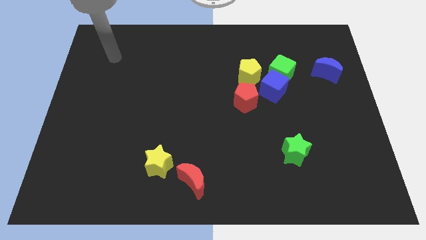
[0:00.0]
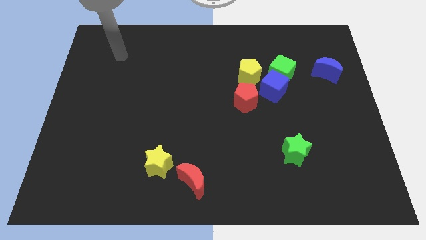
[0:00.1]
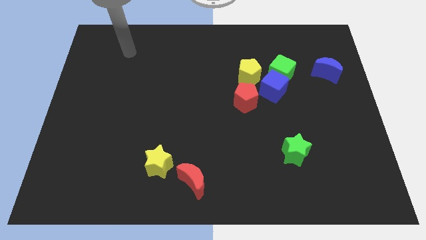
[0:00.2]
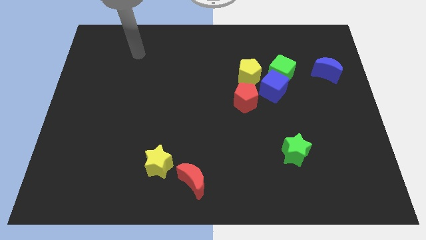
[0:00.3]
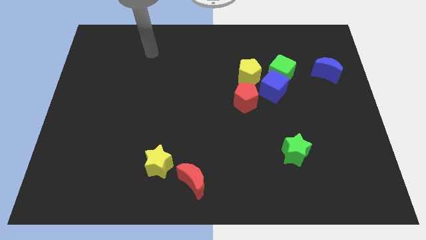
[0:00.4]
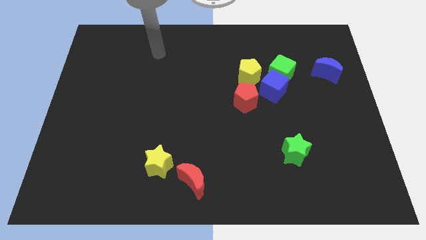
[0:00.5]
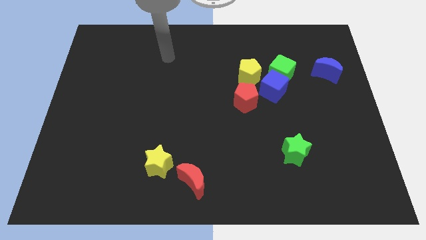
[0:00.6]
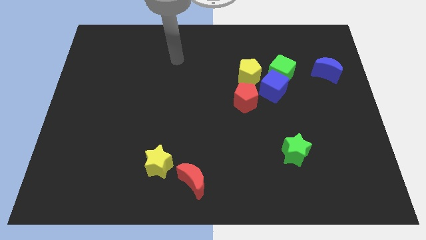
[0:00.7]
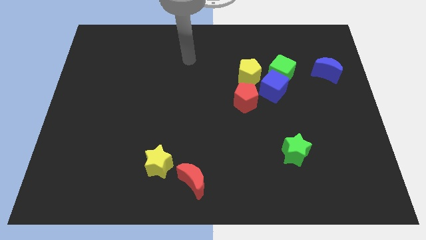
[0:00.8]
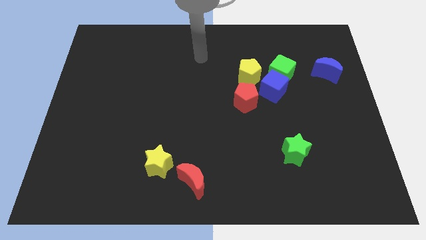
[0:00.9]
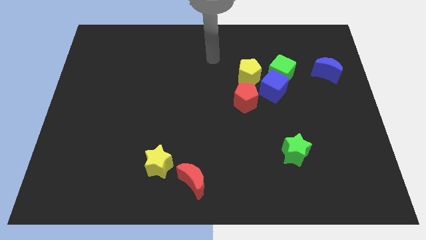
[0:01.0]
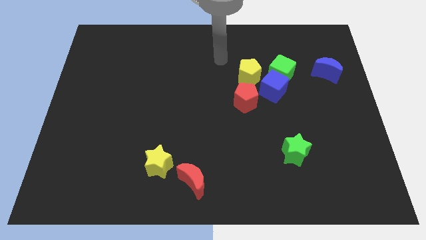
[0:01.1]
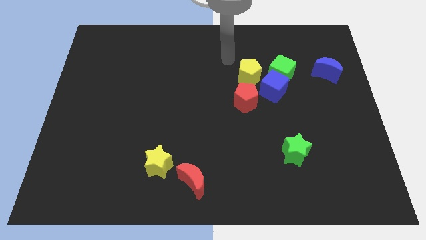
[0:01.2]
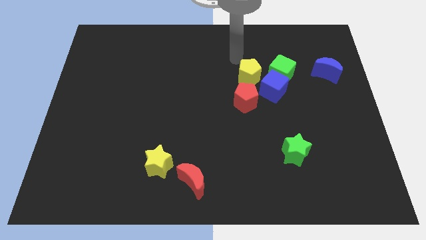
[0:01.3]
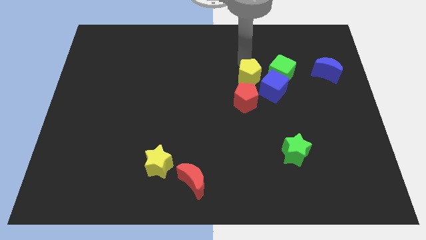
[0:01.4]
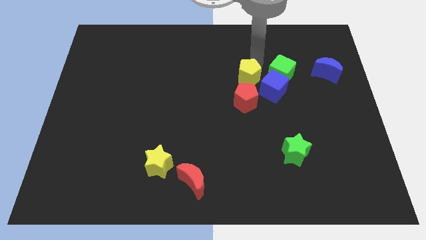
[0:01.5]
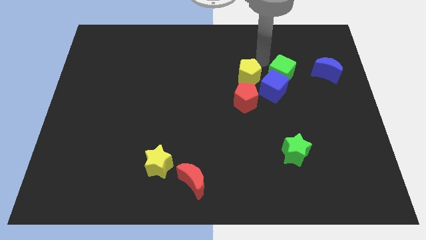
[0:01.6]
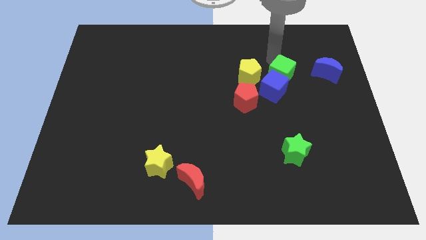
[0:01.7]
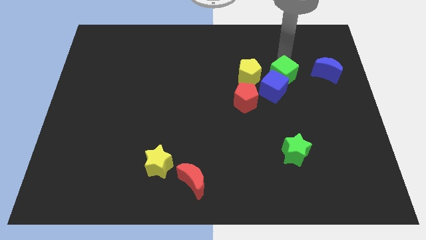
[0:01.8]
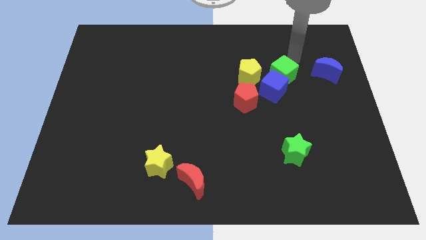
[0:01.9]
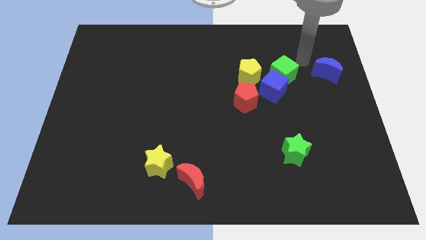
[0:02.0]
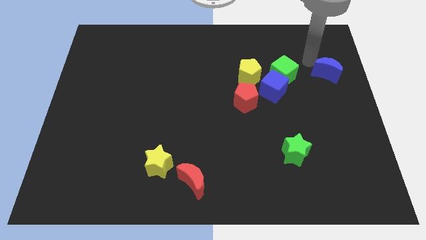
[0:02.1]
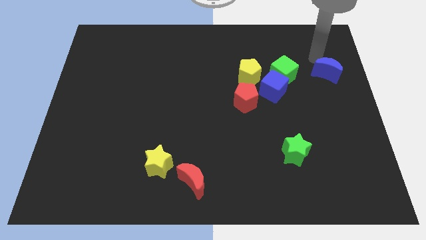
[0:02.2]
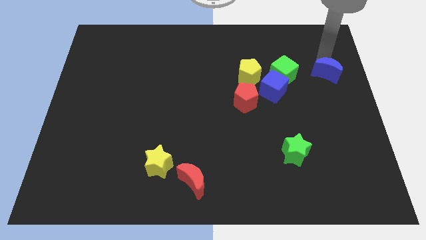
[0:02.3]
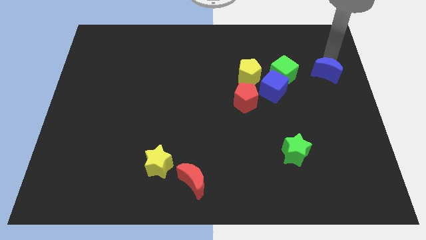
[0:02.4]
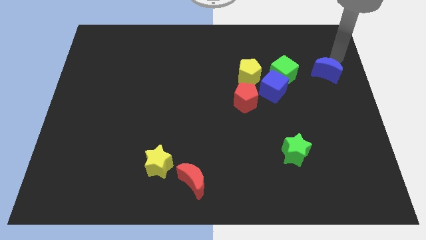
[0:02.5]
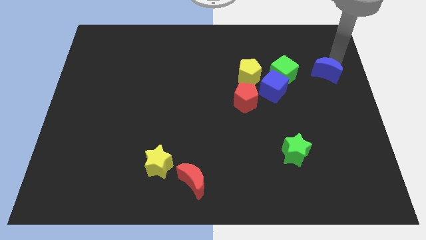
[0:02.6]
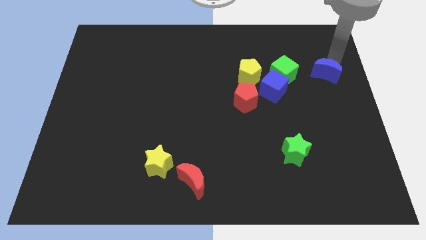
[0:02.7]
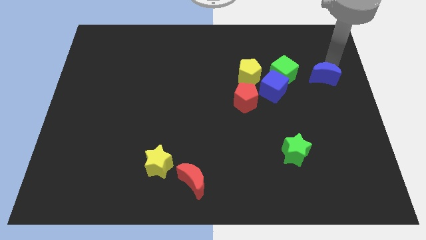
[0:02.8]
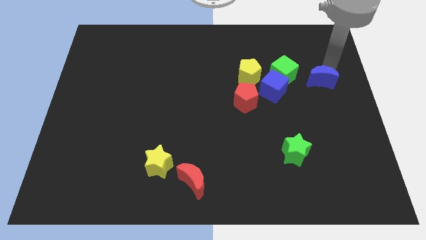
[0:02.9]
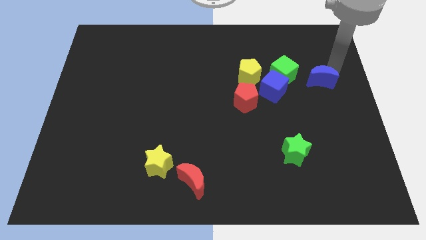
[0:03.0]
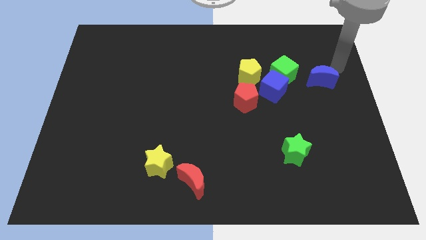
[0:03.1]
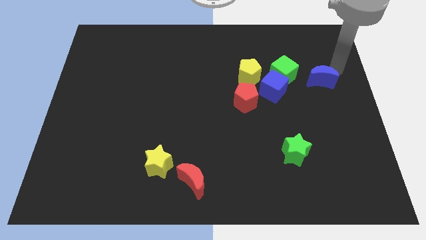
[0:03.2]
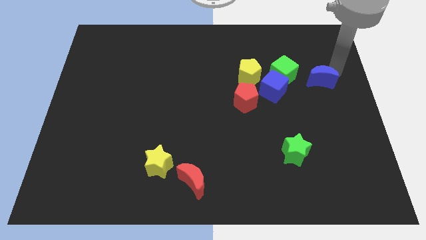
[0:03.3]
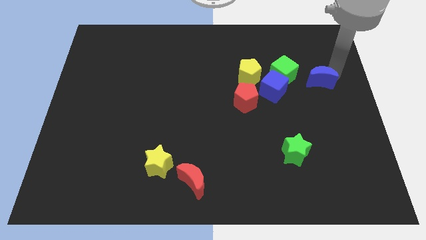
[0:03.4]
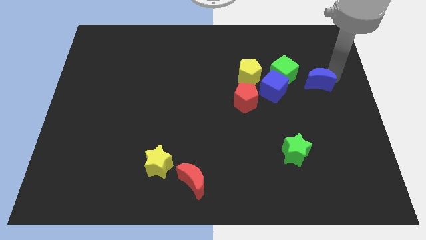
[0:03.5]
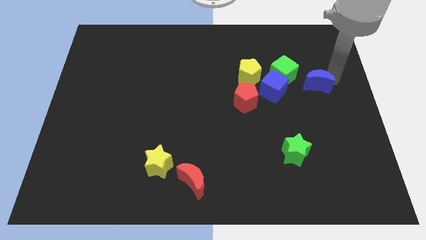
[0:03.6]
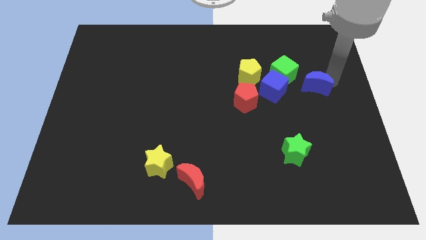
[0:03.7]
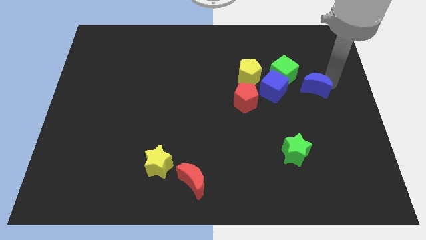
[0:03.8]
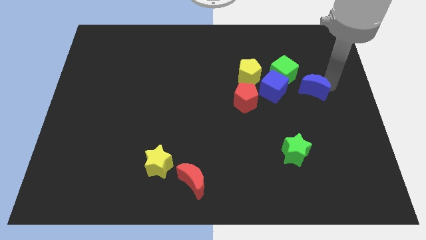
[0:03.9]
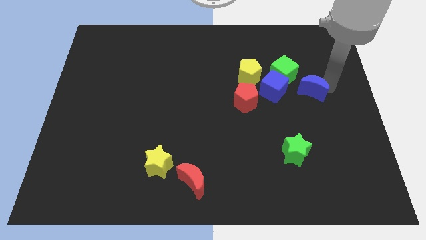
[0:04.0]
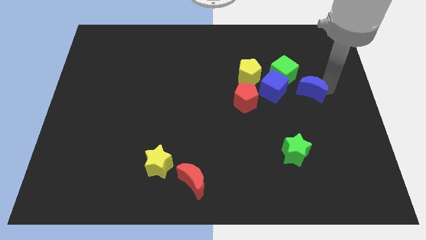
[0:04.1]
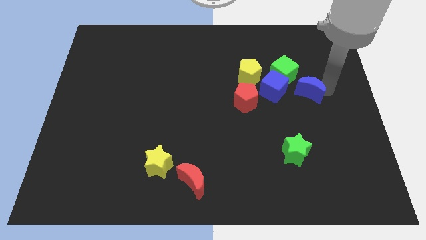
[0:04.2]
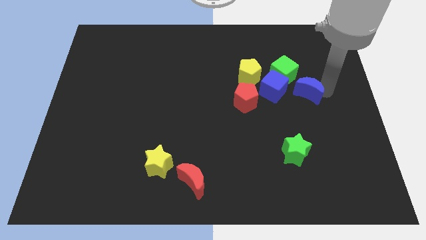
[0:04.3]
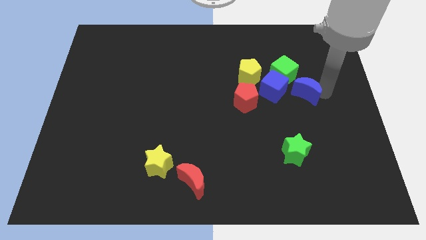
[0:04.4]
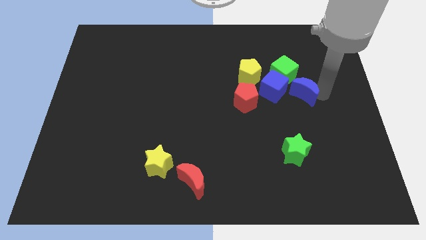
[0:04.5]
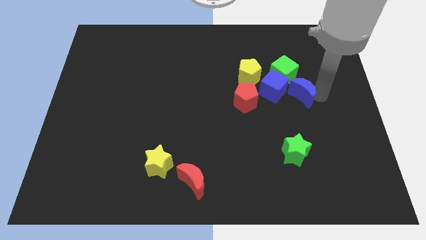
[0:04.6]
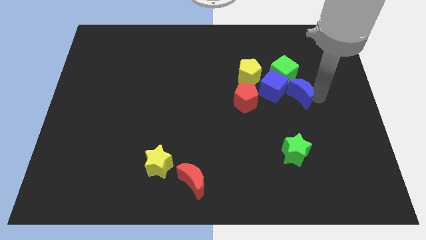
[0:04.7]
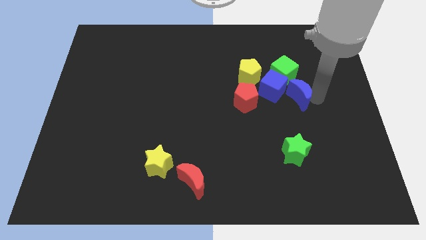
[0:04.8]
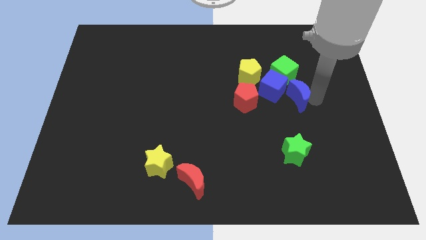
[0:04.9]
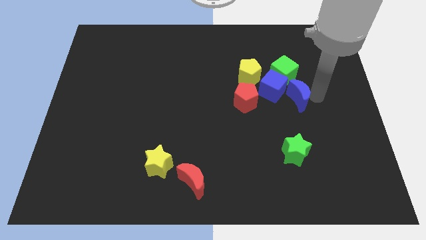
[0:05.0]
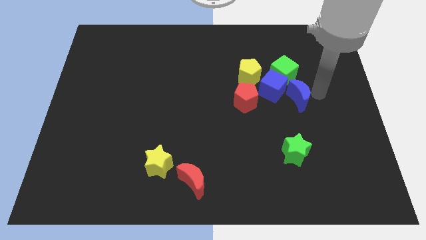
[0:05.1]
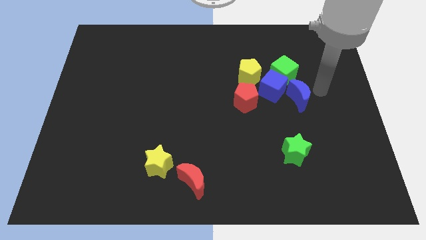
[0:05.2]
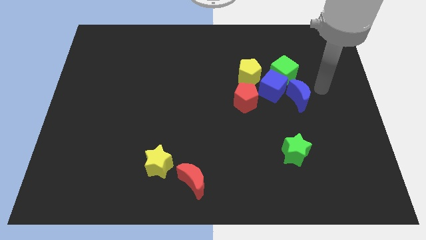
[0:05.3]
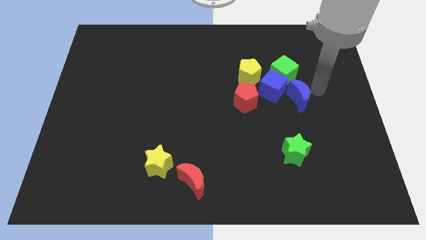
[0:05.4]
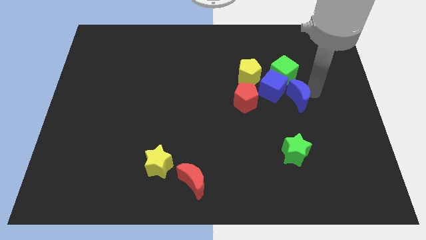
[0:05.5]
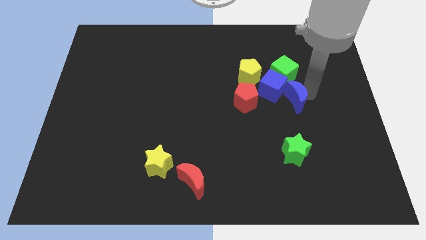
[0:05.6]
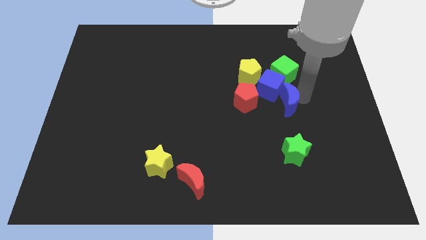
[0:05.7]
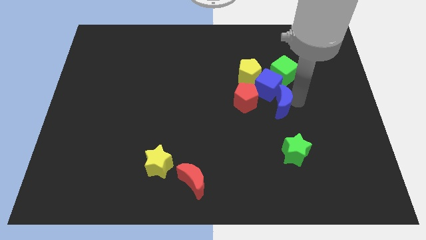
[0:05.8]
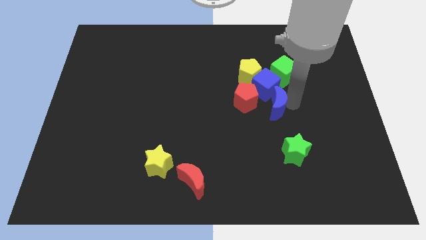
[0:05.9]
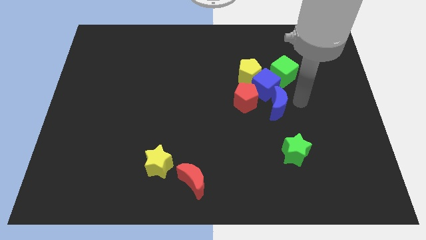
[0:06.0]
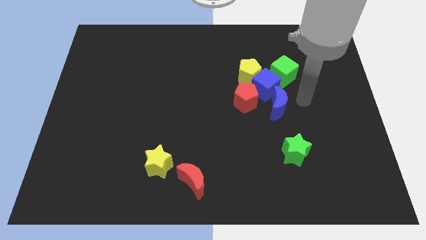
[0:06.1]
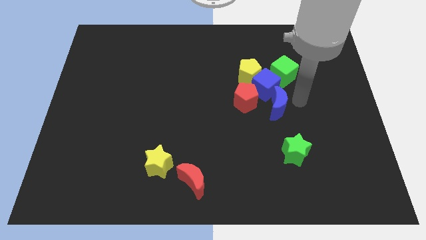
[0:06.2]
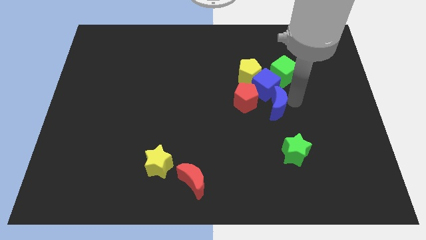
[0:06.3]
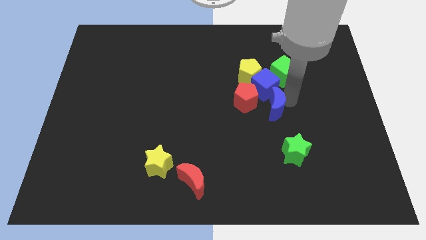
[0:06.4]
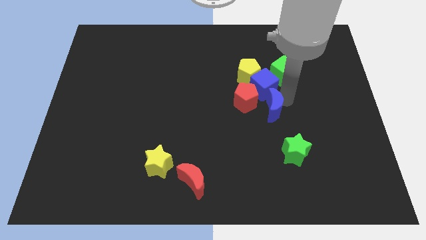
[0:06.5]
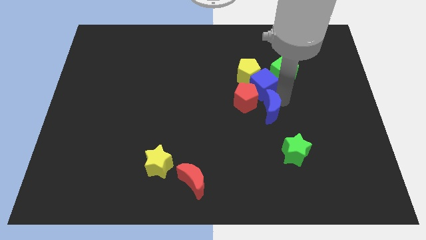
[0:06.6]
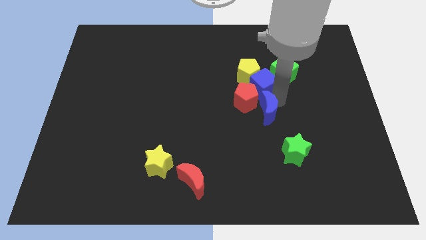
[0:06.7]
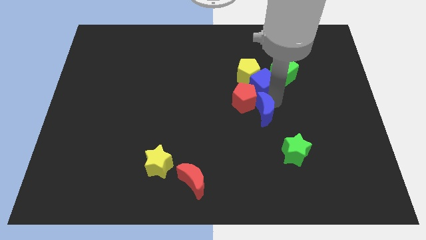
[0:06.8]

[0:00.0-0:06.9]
move the blue moon to the middle of the board
